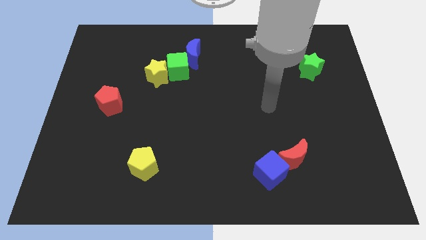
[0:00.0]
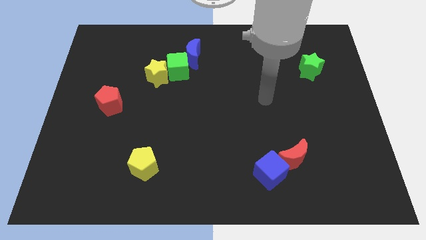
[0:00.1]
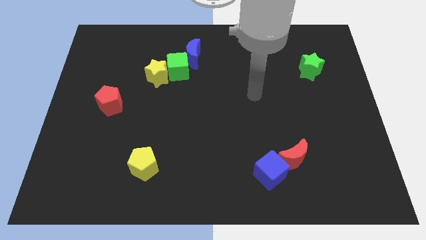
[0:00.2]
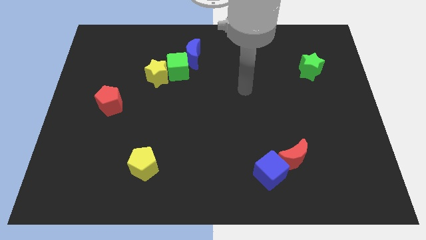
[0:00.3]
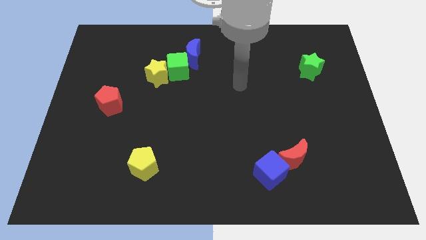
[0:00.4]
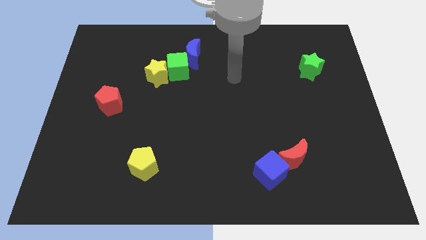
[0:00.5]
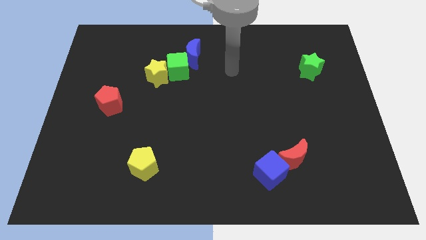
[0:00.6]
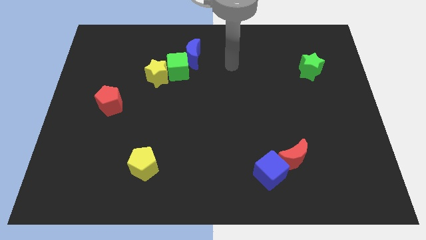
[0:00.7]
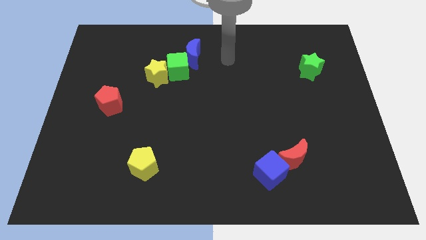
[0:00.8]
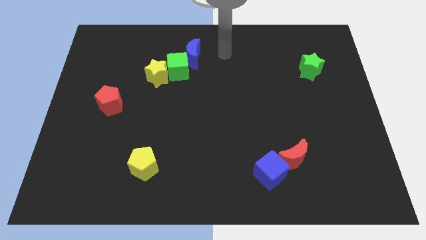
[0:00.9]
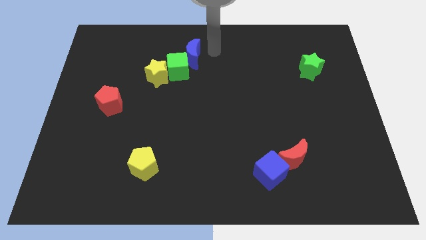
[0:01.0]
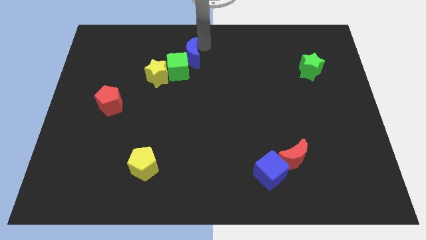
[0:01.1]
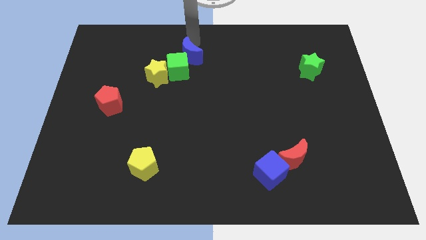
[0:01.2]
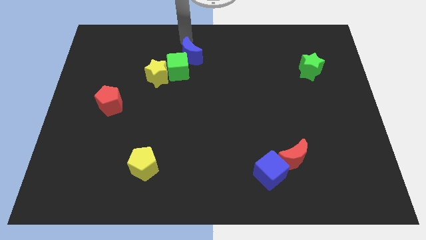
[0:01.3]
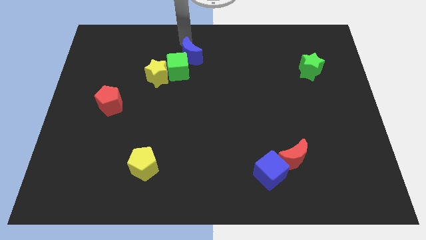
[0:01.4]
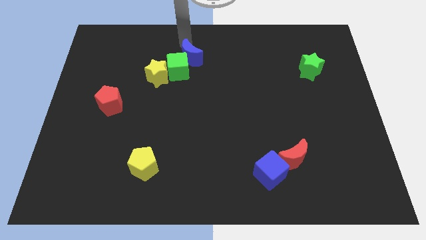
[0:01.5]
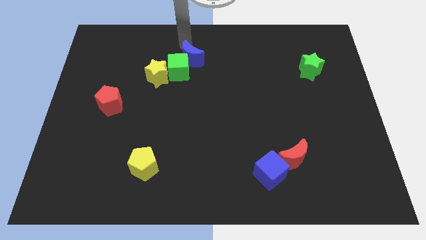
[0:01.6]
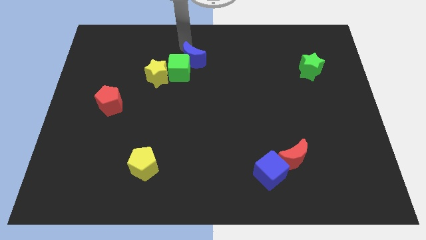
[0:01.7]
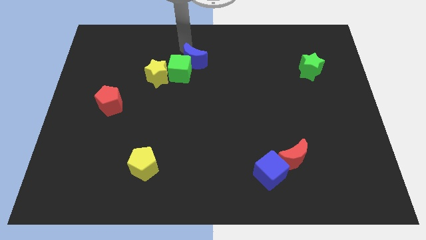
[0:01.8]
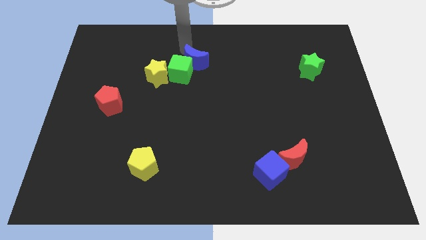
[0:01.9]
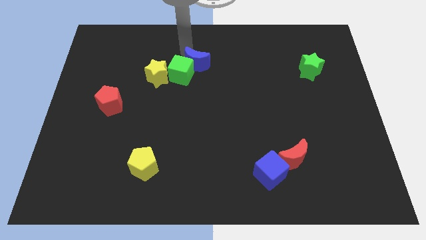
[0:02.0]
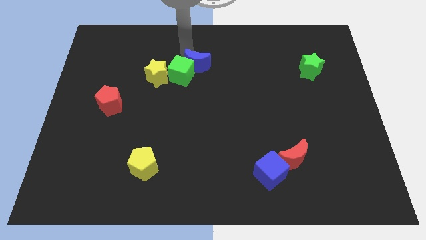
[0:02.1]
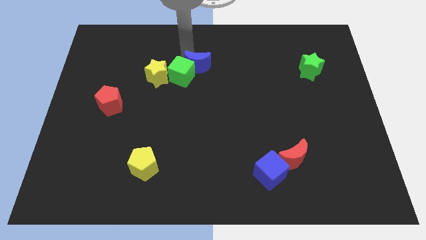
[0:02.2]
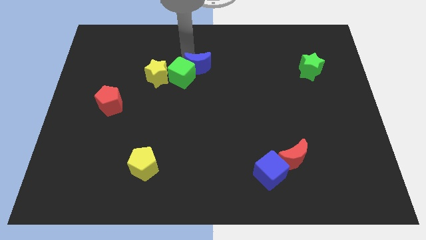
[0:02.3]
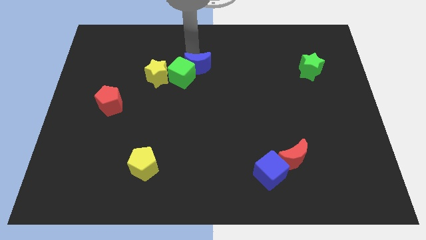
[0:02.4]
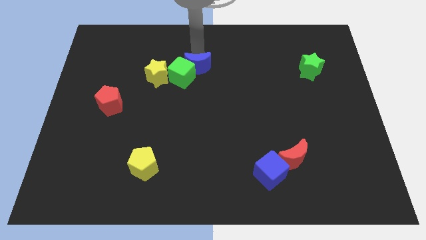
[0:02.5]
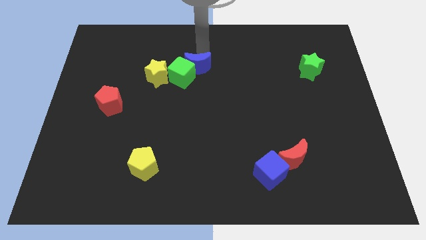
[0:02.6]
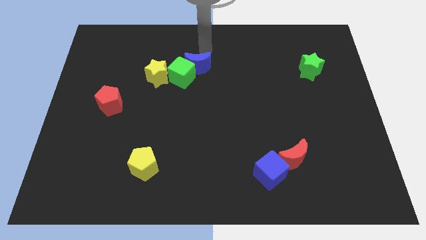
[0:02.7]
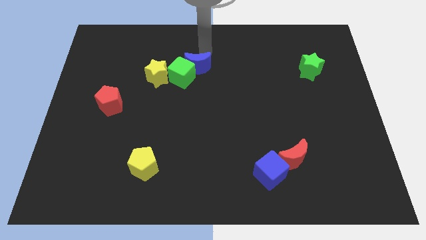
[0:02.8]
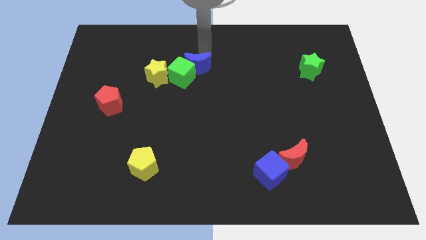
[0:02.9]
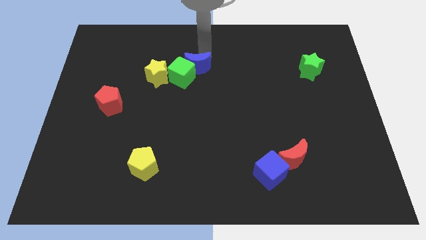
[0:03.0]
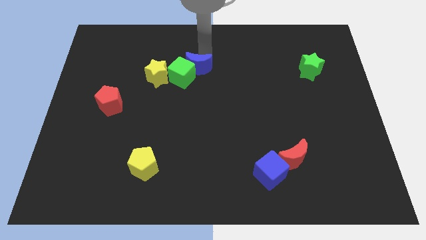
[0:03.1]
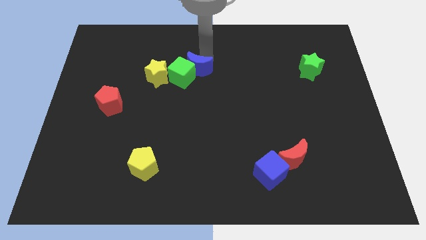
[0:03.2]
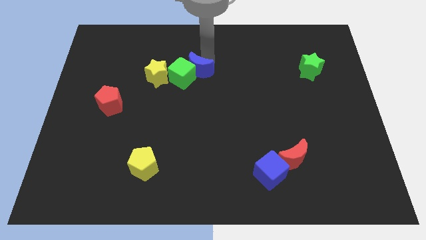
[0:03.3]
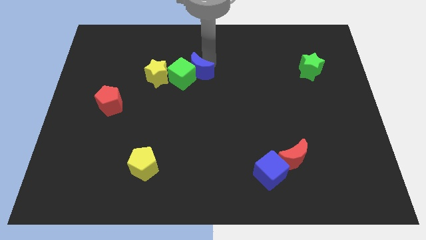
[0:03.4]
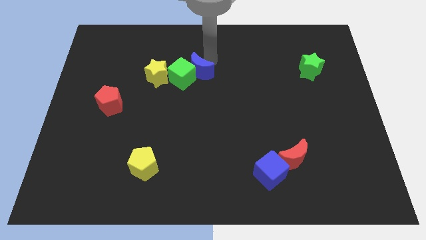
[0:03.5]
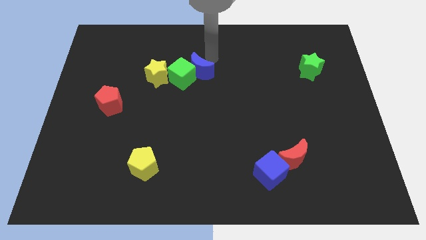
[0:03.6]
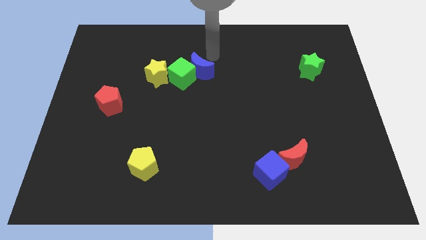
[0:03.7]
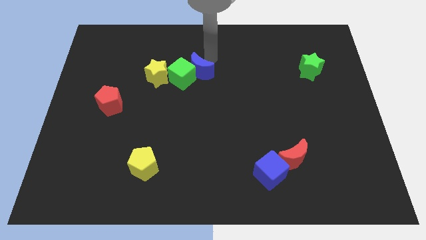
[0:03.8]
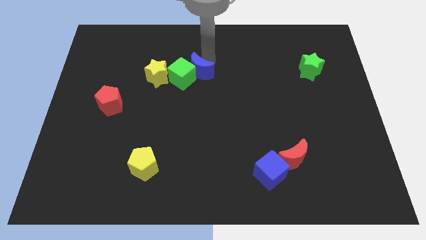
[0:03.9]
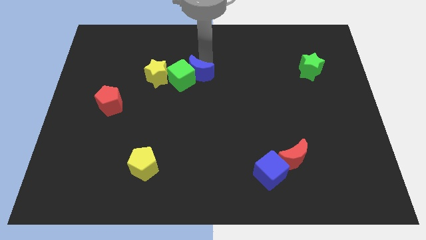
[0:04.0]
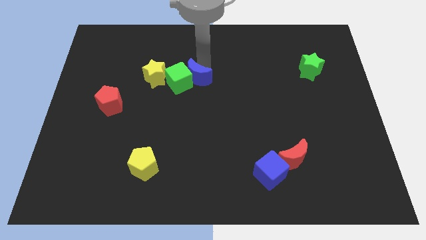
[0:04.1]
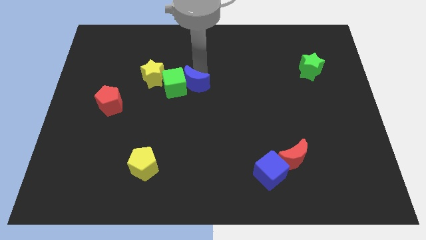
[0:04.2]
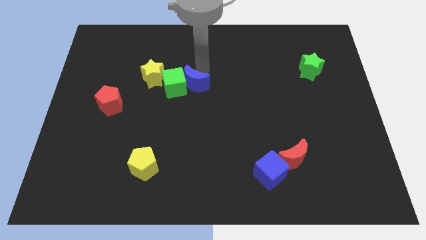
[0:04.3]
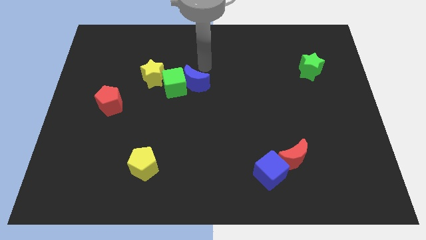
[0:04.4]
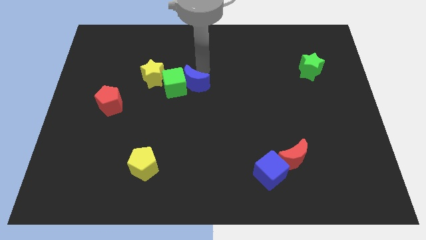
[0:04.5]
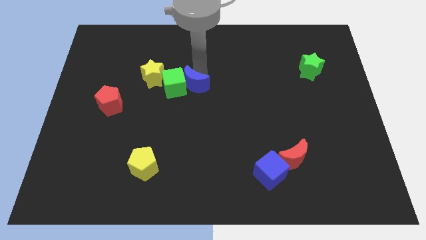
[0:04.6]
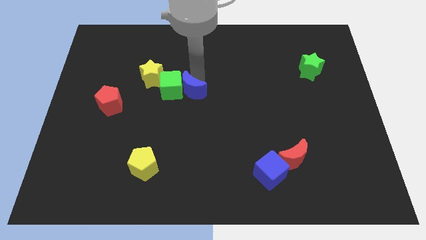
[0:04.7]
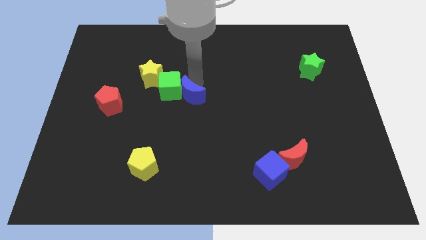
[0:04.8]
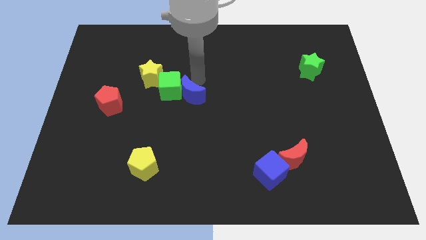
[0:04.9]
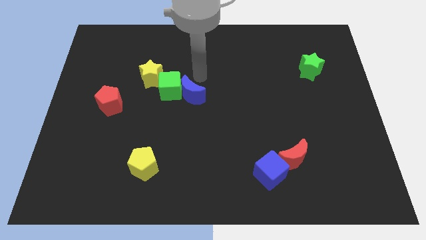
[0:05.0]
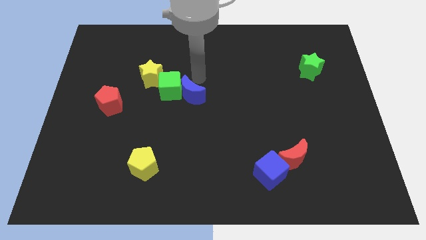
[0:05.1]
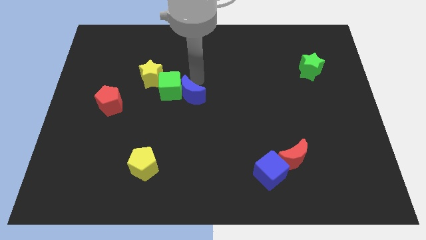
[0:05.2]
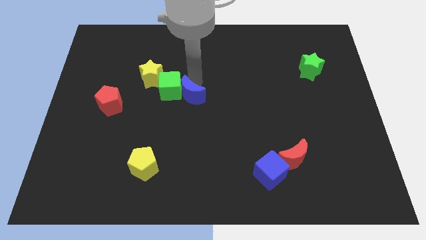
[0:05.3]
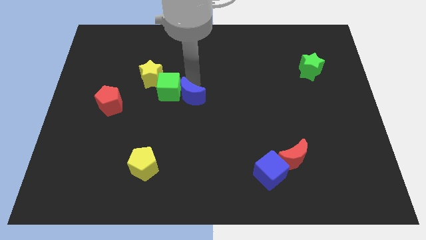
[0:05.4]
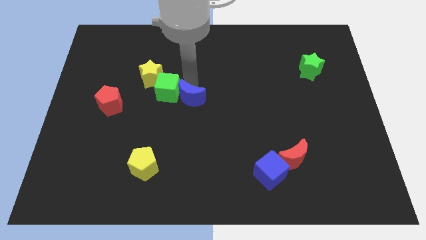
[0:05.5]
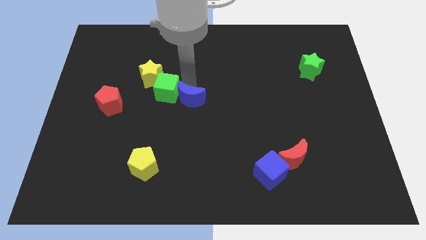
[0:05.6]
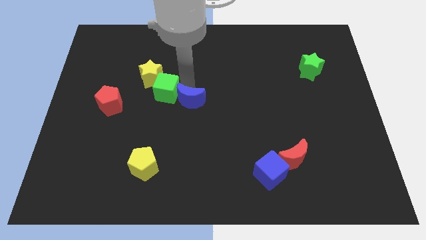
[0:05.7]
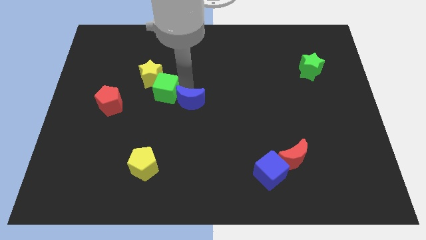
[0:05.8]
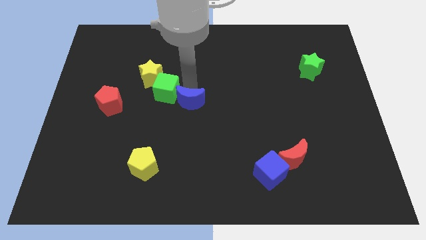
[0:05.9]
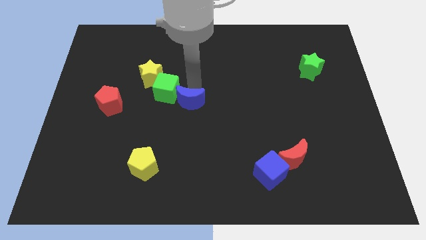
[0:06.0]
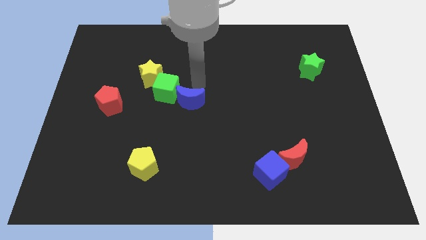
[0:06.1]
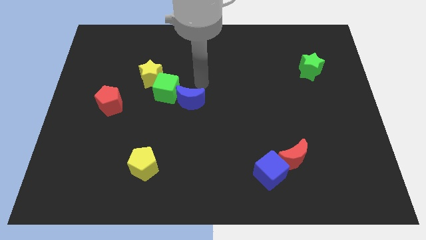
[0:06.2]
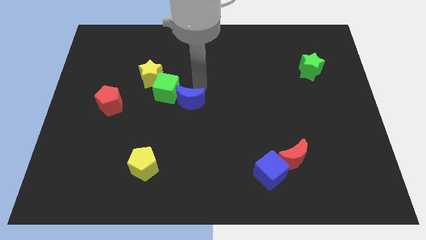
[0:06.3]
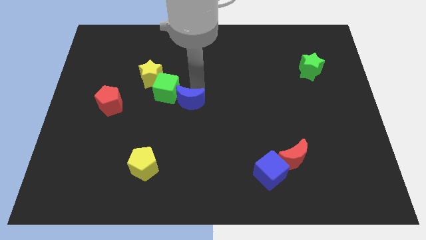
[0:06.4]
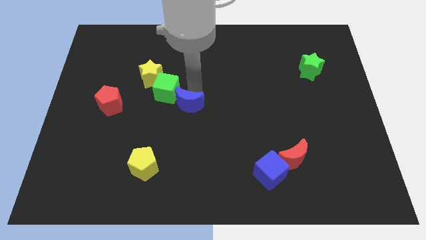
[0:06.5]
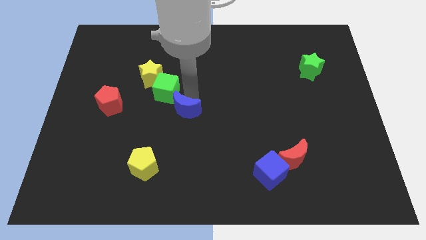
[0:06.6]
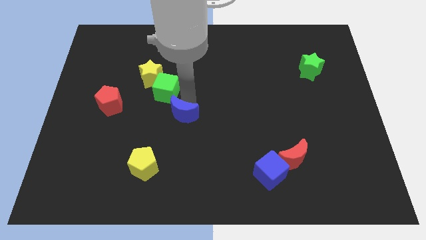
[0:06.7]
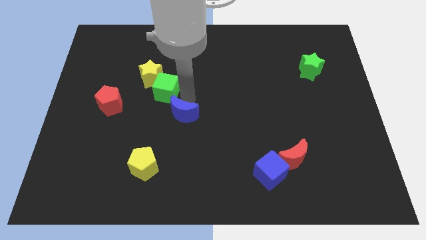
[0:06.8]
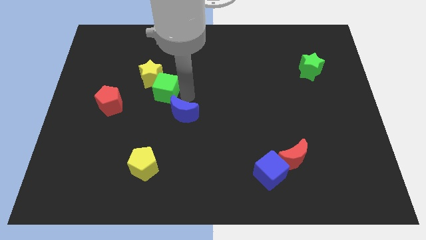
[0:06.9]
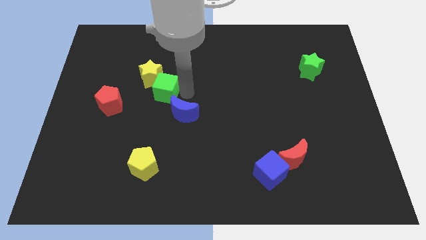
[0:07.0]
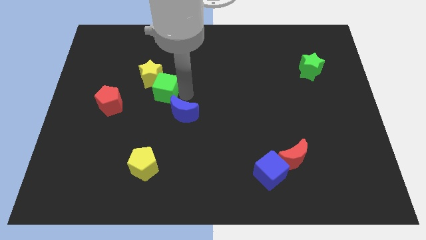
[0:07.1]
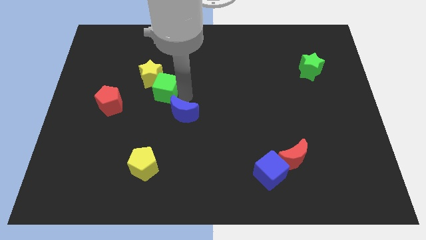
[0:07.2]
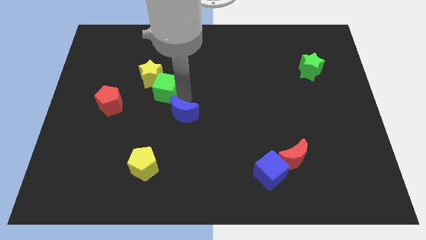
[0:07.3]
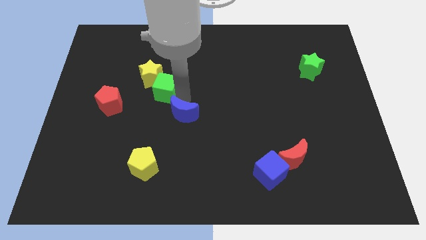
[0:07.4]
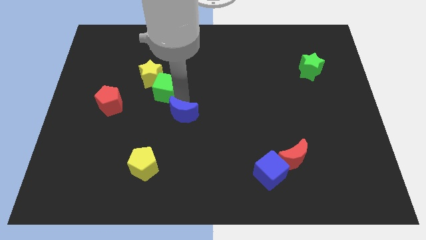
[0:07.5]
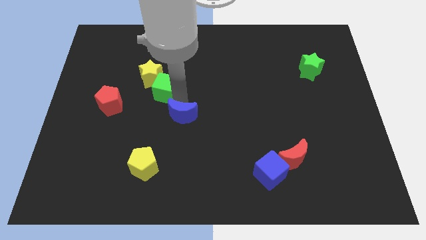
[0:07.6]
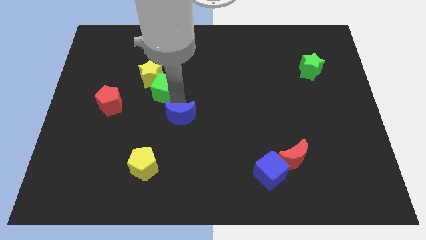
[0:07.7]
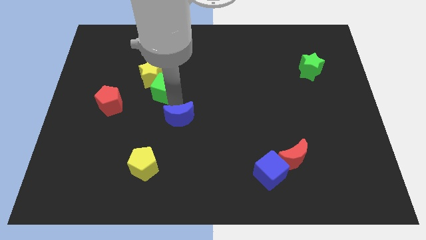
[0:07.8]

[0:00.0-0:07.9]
slide the blue moon down
